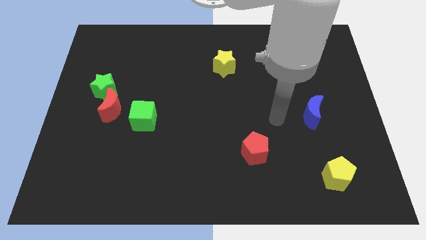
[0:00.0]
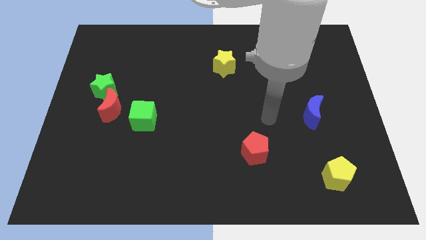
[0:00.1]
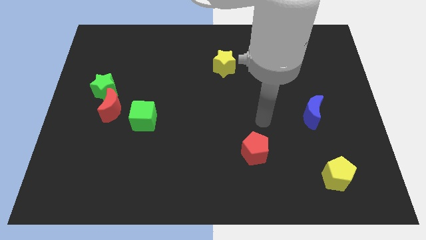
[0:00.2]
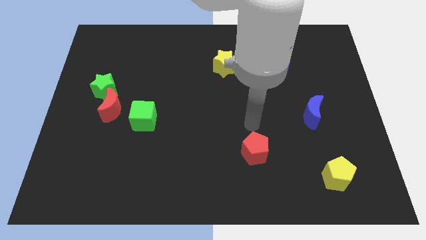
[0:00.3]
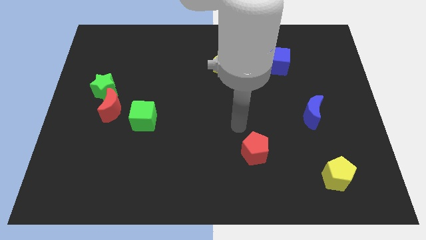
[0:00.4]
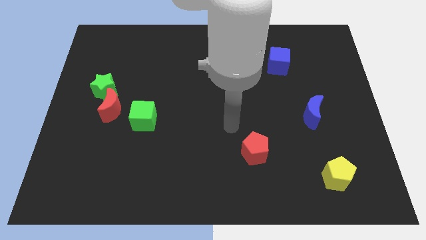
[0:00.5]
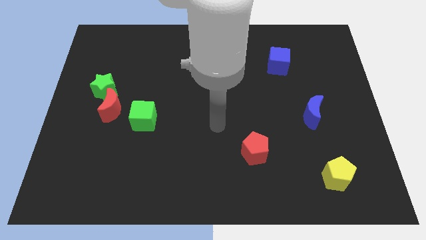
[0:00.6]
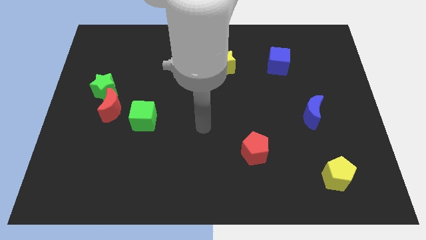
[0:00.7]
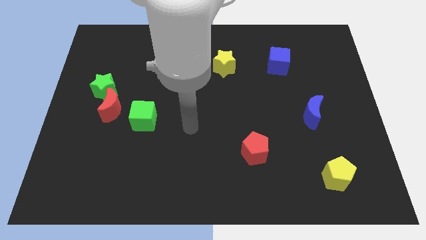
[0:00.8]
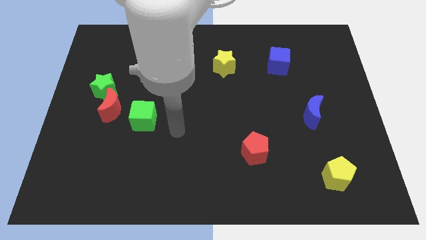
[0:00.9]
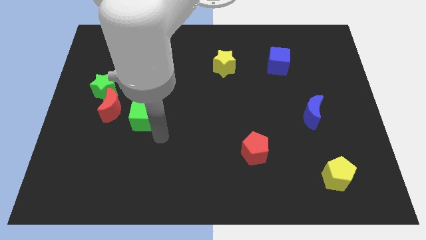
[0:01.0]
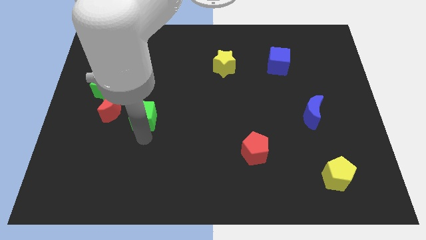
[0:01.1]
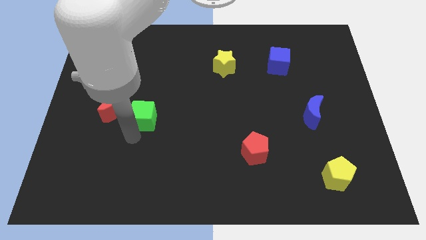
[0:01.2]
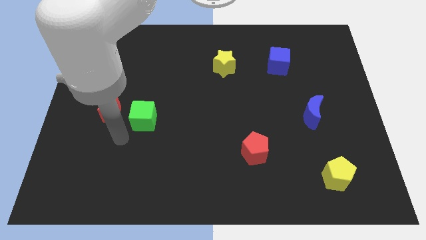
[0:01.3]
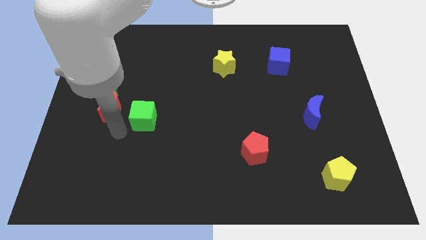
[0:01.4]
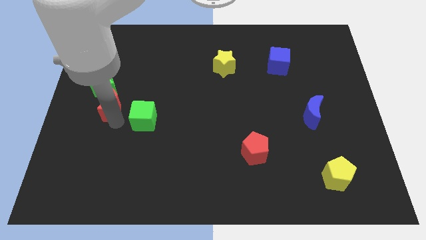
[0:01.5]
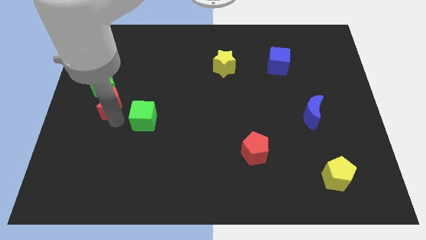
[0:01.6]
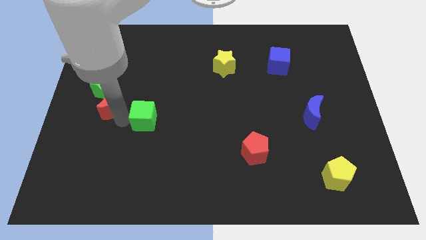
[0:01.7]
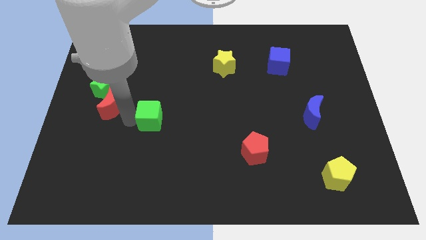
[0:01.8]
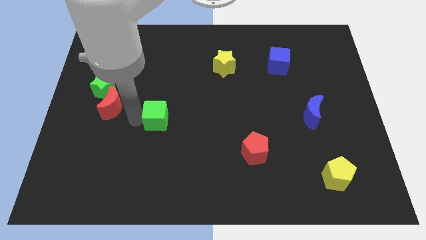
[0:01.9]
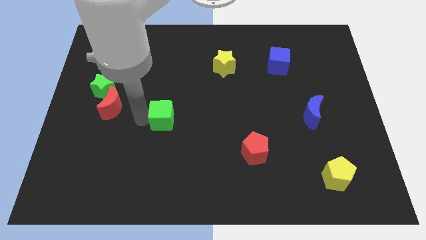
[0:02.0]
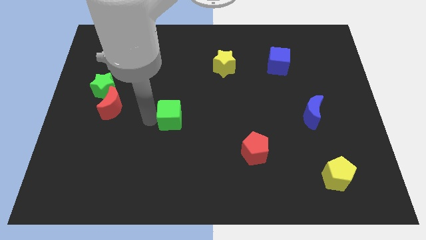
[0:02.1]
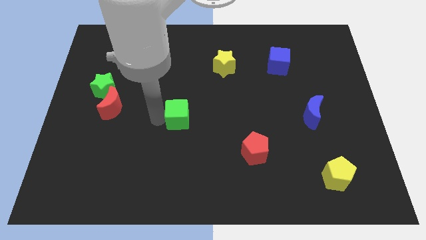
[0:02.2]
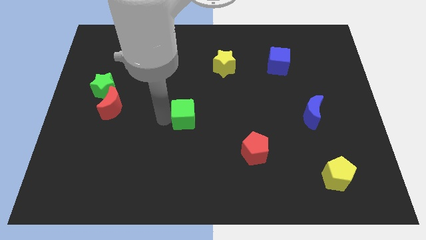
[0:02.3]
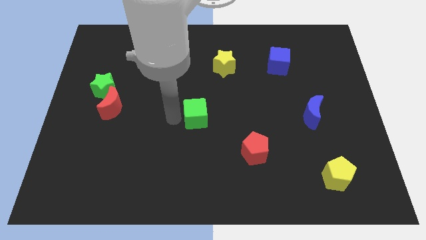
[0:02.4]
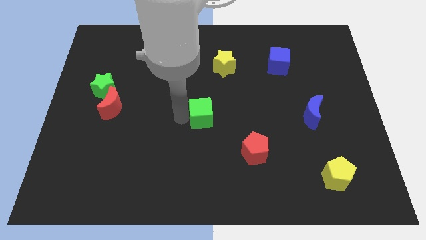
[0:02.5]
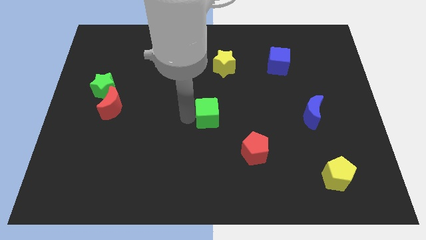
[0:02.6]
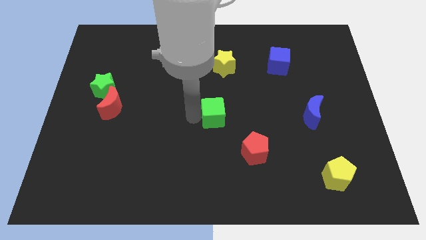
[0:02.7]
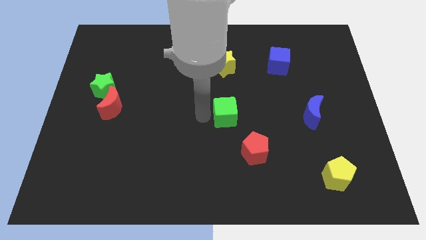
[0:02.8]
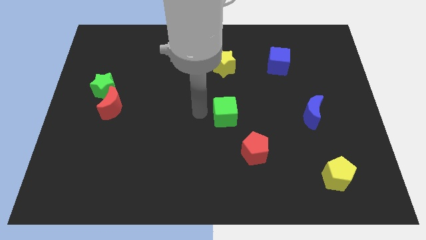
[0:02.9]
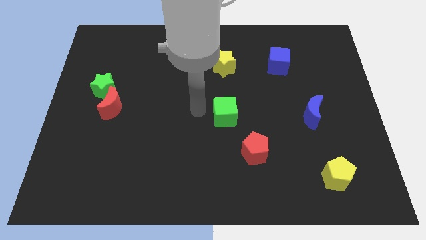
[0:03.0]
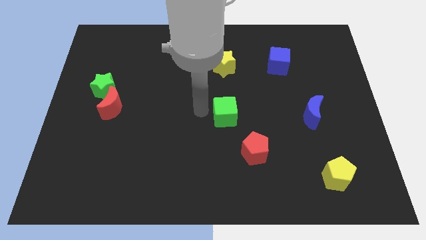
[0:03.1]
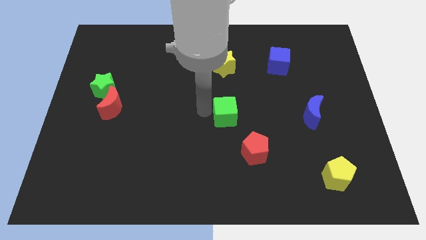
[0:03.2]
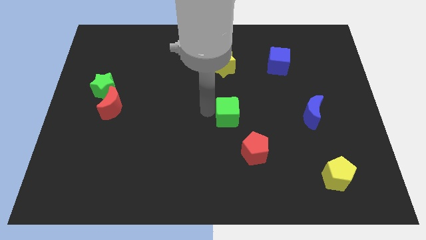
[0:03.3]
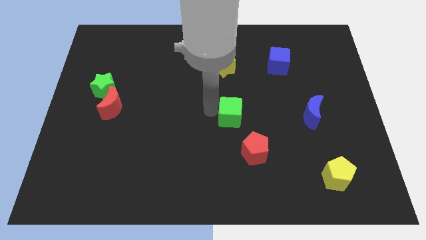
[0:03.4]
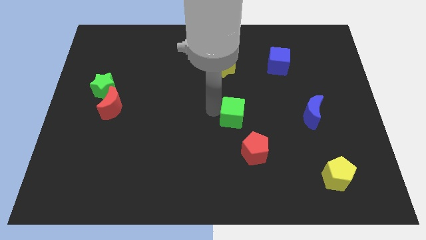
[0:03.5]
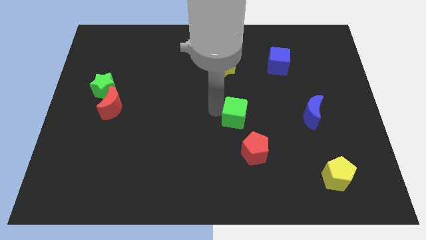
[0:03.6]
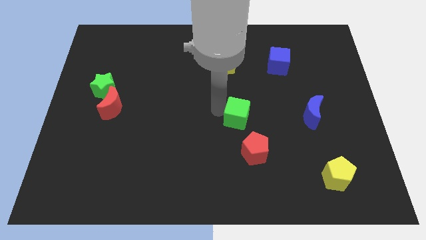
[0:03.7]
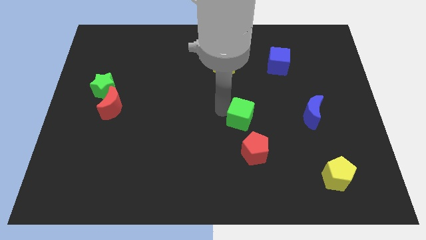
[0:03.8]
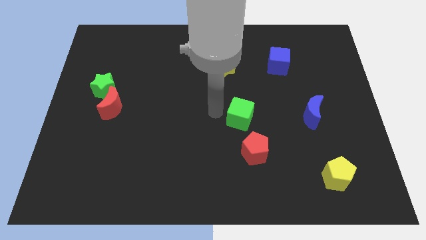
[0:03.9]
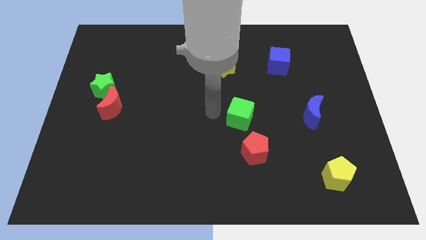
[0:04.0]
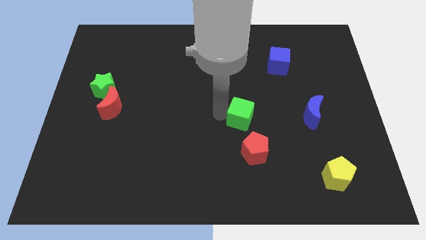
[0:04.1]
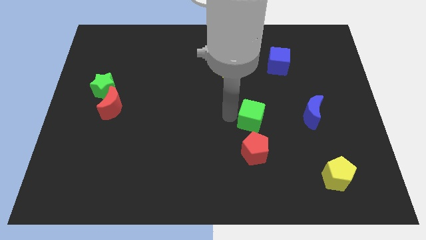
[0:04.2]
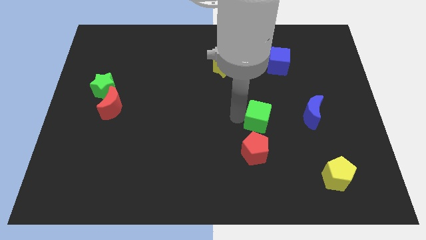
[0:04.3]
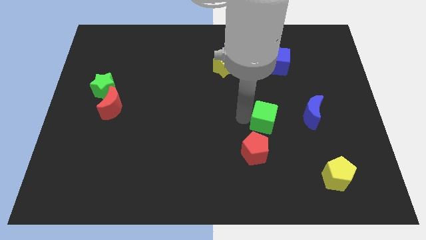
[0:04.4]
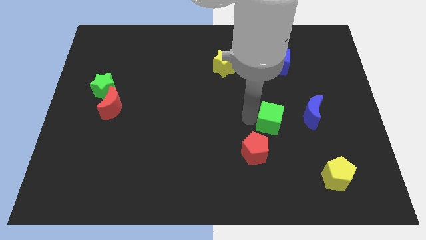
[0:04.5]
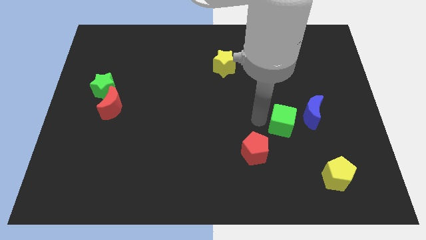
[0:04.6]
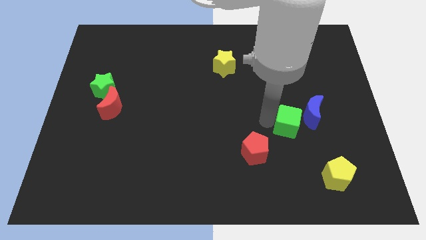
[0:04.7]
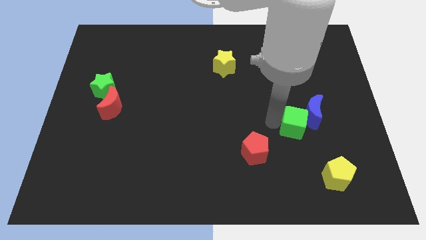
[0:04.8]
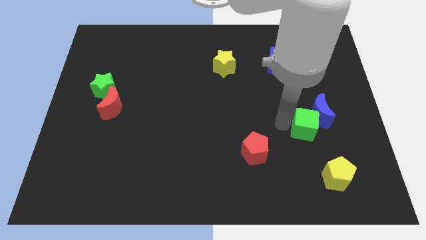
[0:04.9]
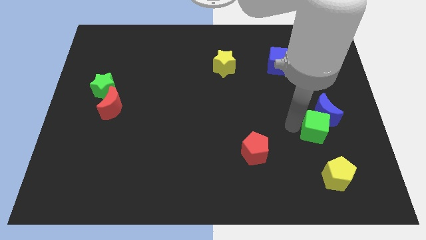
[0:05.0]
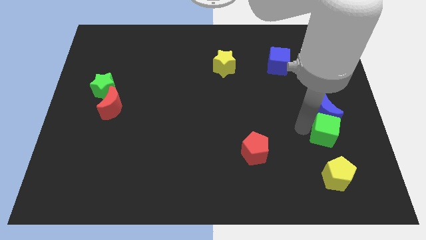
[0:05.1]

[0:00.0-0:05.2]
slide the green cube to the bottom right of the blue moon

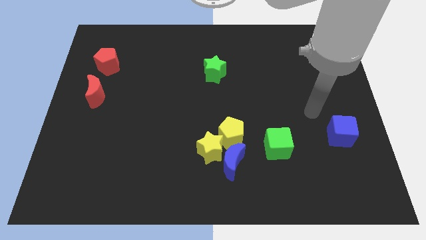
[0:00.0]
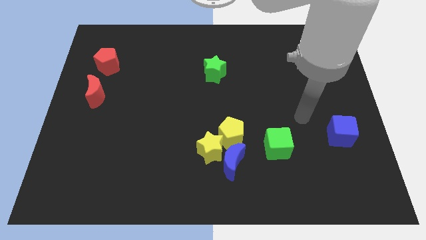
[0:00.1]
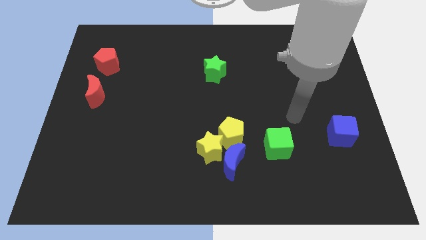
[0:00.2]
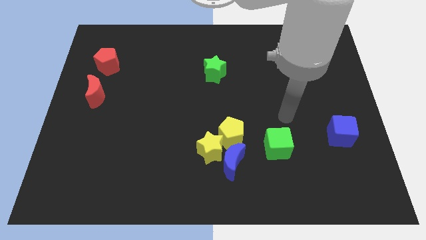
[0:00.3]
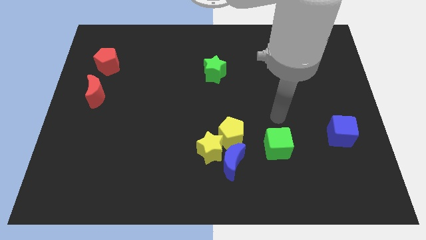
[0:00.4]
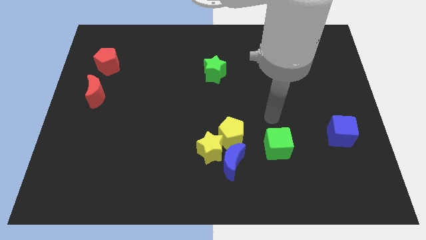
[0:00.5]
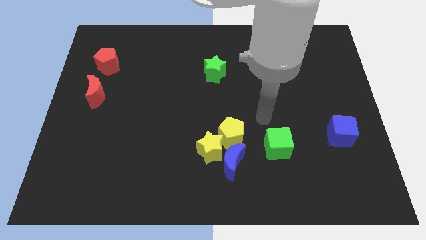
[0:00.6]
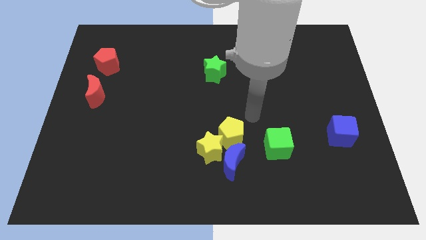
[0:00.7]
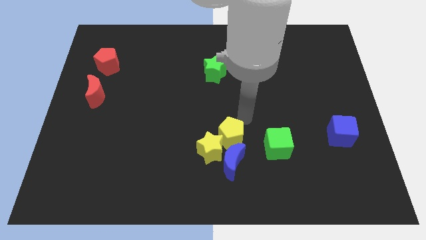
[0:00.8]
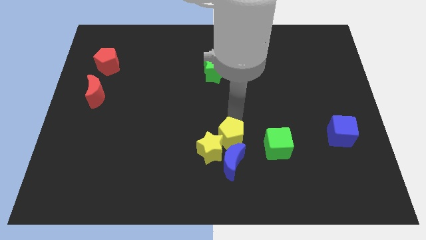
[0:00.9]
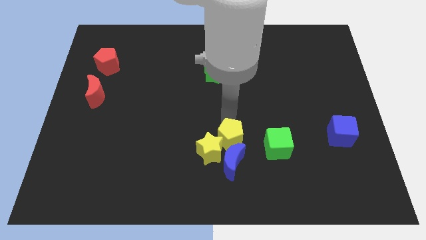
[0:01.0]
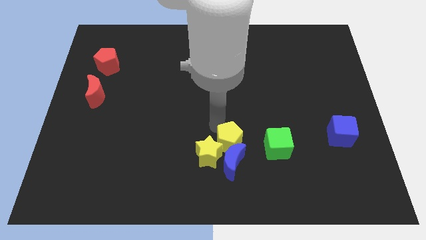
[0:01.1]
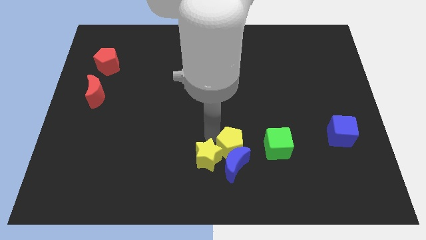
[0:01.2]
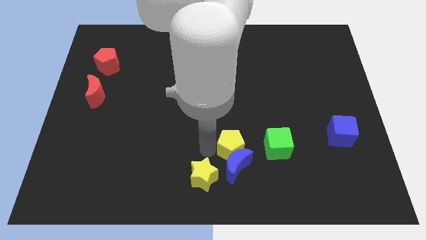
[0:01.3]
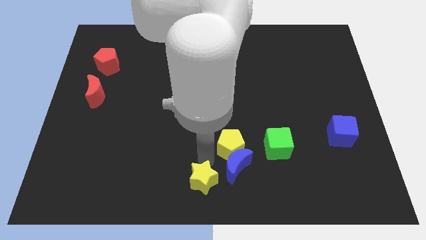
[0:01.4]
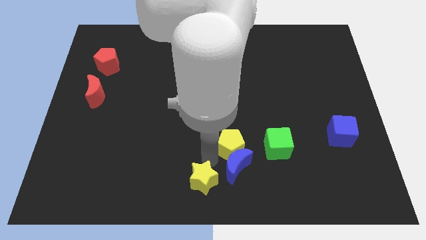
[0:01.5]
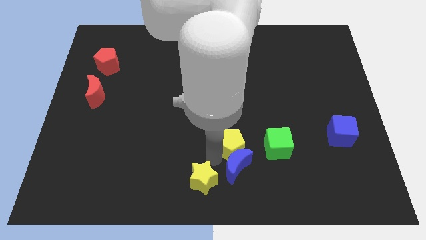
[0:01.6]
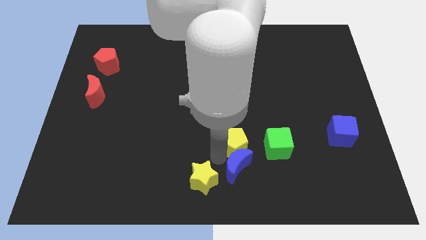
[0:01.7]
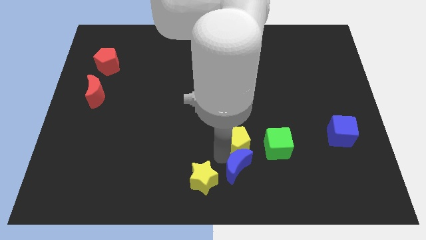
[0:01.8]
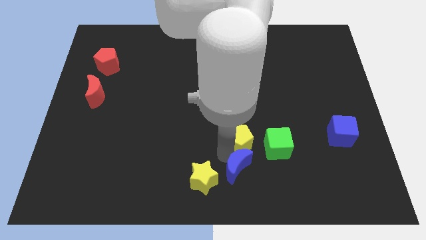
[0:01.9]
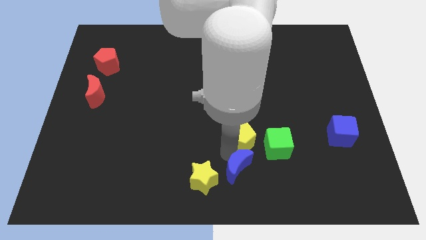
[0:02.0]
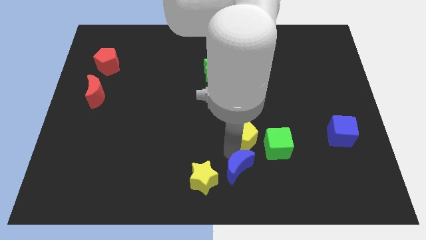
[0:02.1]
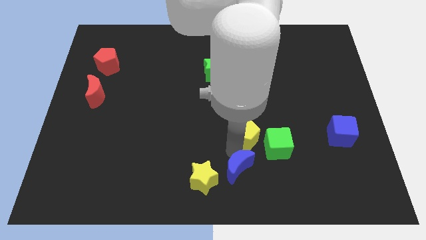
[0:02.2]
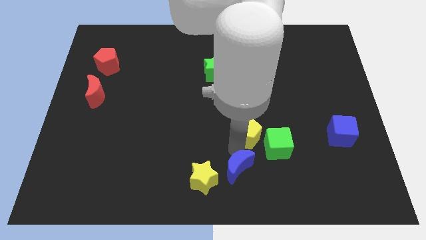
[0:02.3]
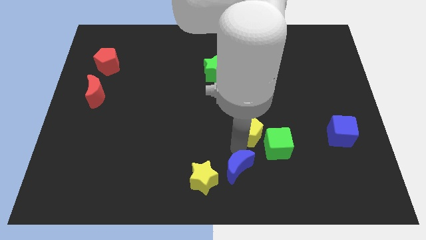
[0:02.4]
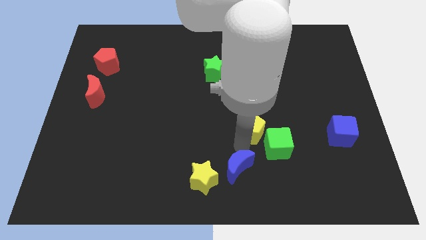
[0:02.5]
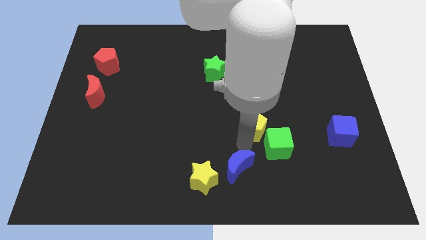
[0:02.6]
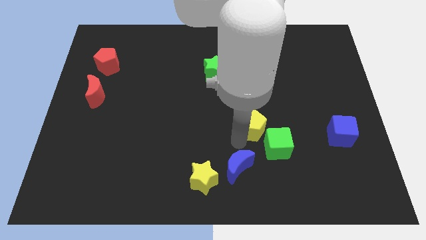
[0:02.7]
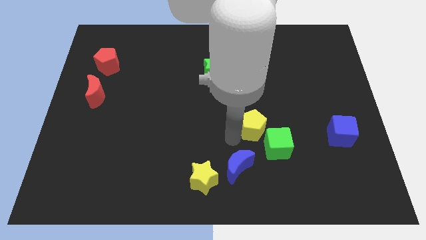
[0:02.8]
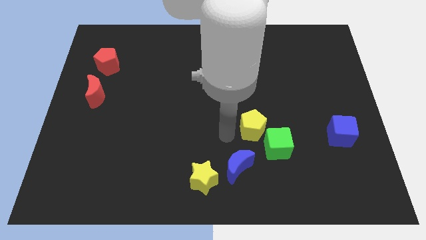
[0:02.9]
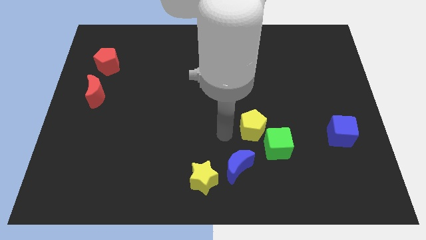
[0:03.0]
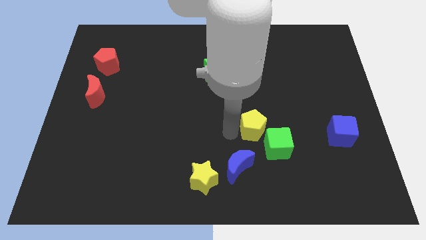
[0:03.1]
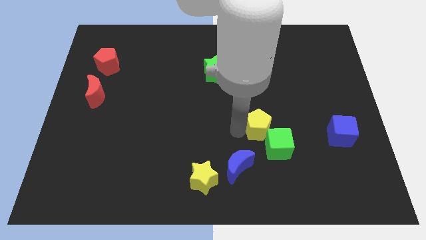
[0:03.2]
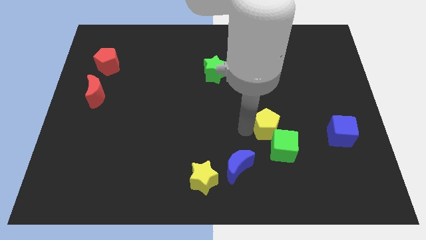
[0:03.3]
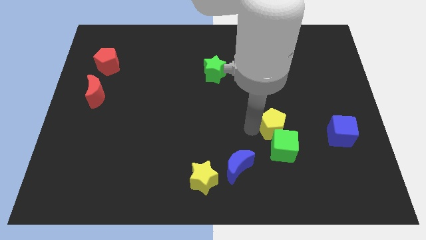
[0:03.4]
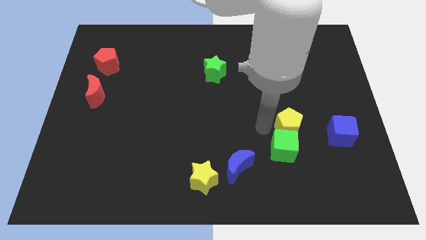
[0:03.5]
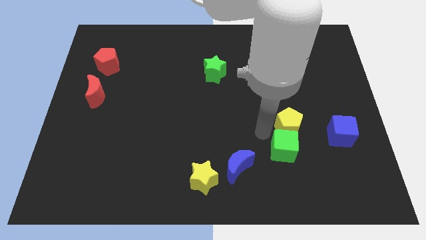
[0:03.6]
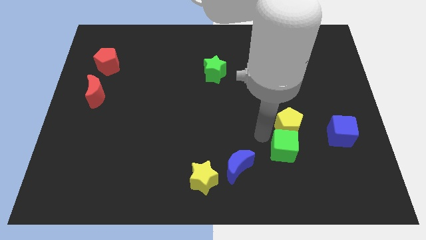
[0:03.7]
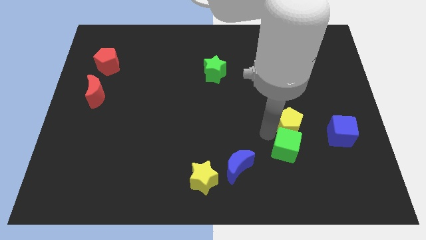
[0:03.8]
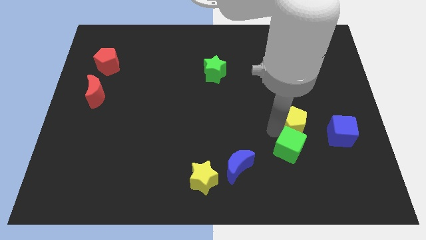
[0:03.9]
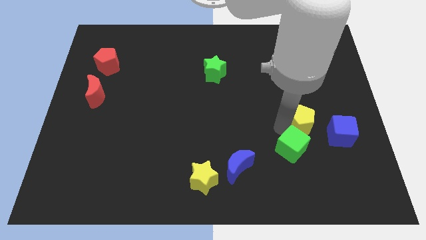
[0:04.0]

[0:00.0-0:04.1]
slide the yellow pentagon to the top left side of the blue cube
